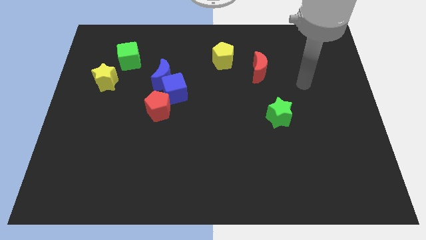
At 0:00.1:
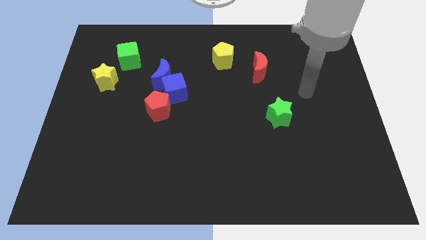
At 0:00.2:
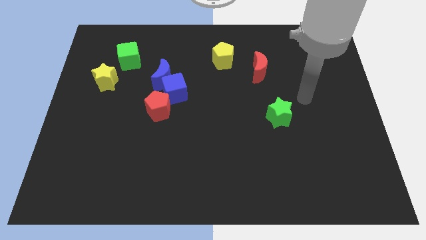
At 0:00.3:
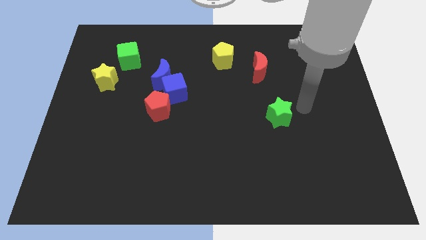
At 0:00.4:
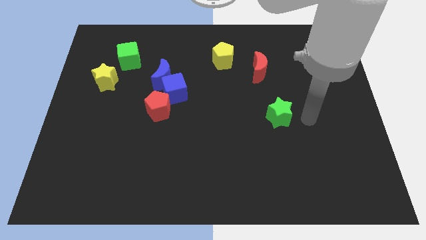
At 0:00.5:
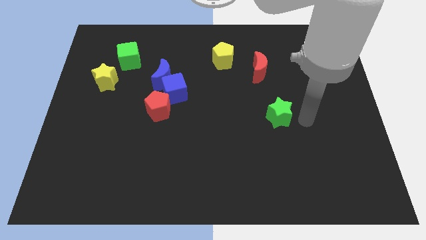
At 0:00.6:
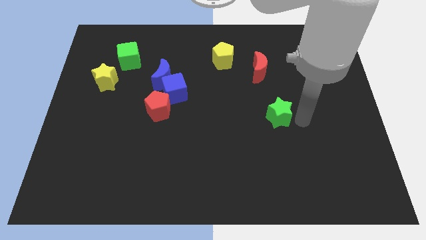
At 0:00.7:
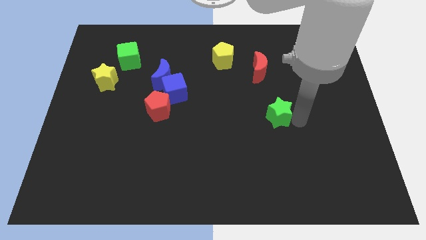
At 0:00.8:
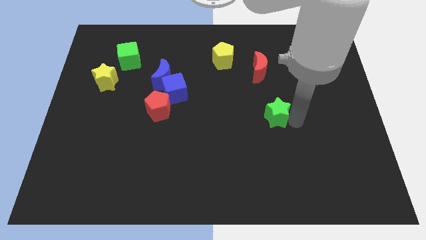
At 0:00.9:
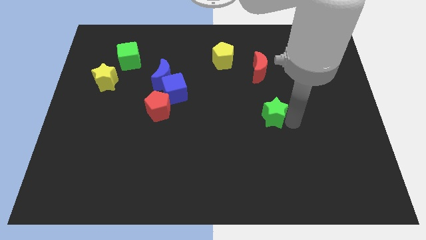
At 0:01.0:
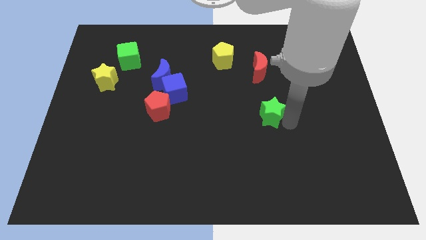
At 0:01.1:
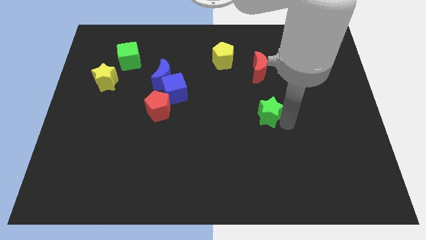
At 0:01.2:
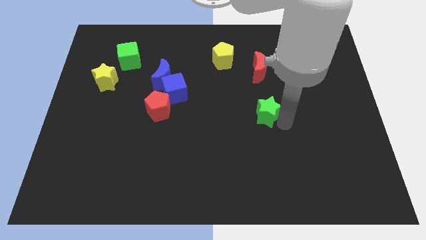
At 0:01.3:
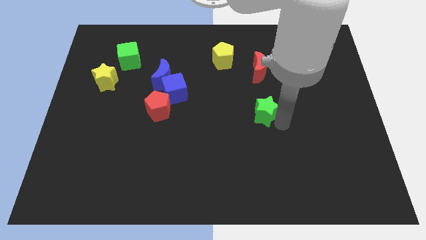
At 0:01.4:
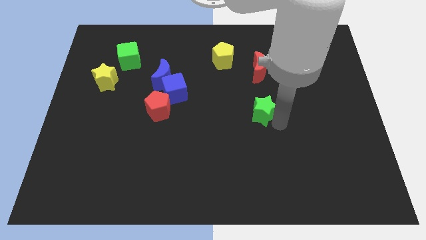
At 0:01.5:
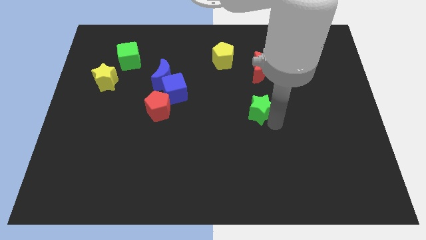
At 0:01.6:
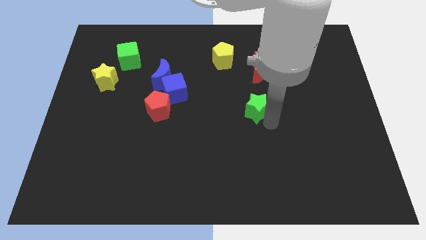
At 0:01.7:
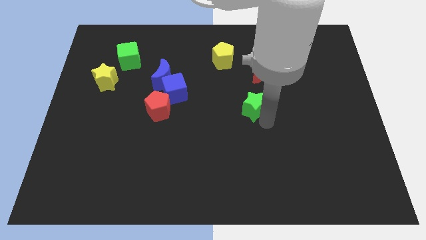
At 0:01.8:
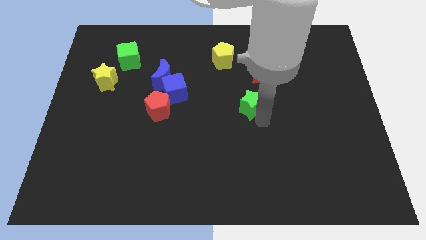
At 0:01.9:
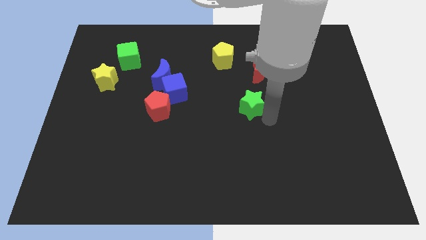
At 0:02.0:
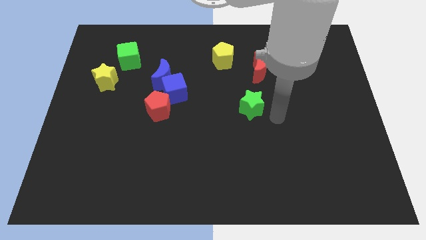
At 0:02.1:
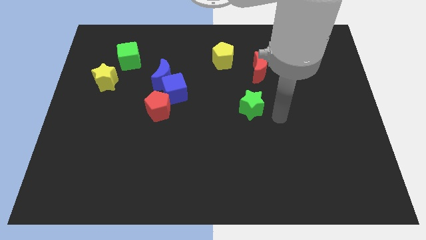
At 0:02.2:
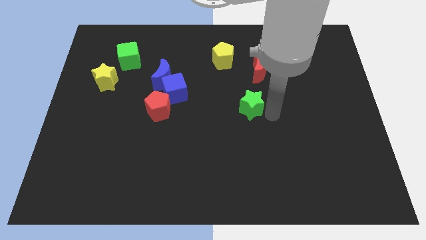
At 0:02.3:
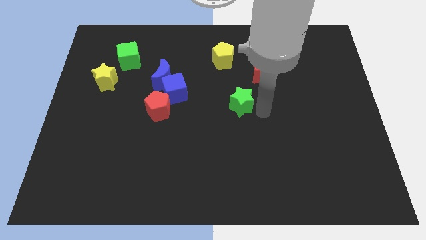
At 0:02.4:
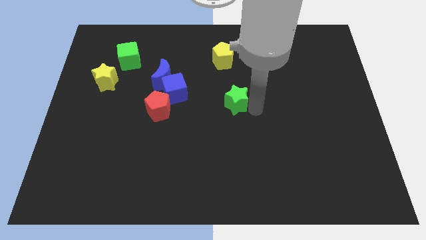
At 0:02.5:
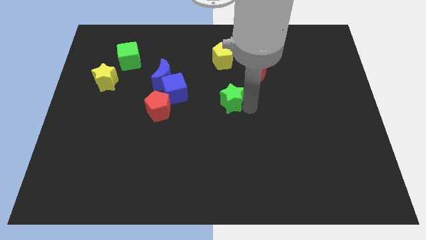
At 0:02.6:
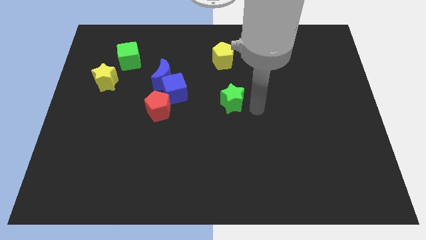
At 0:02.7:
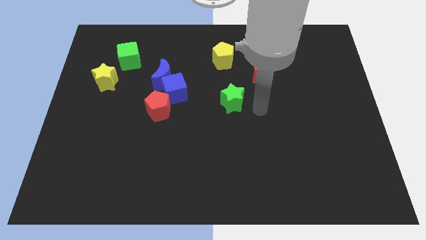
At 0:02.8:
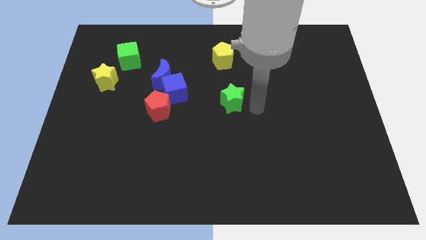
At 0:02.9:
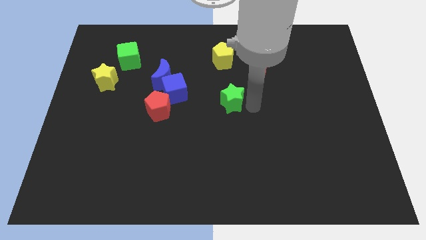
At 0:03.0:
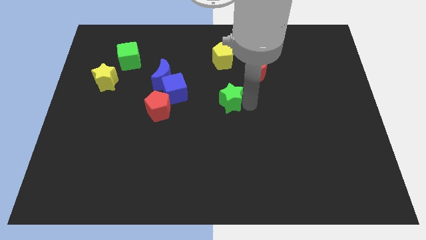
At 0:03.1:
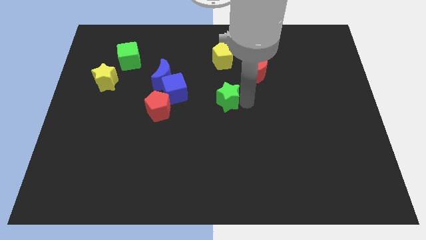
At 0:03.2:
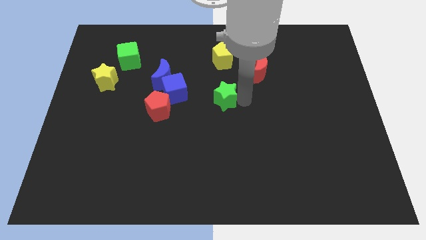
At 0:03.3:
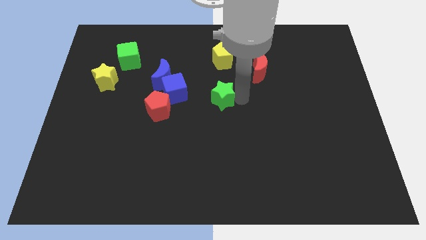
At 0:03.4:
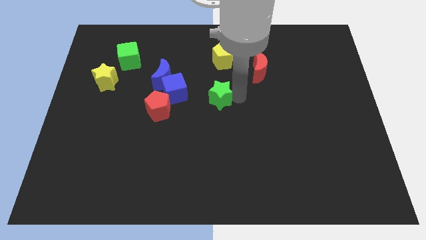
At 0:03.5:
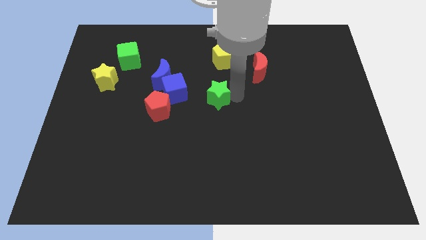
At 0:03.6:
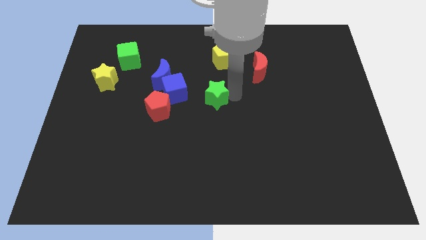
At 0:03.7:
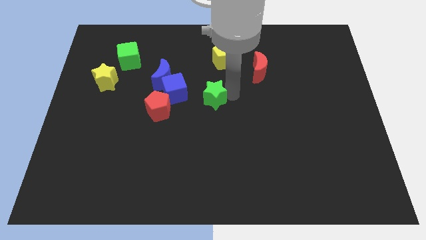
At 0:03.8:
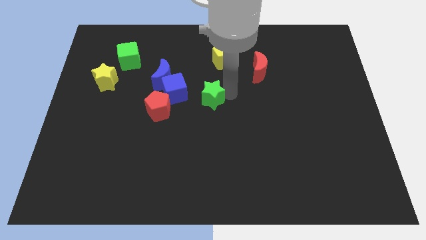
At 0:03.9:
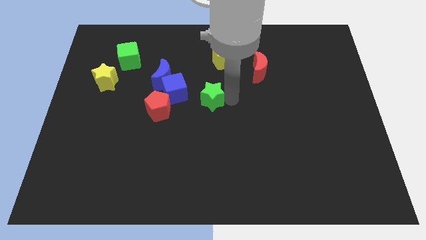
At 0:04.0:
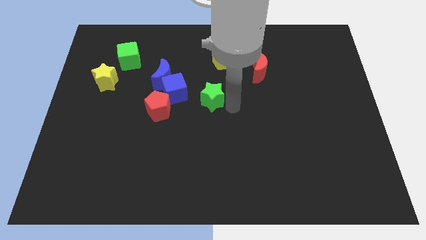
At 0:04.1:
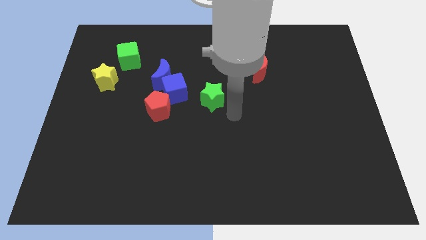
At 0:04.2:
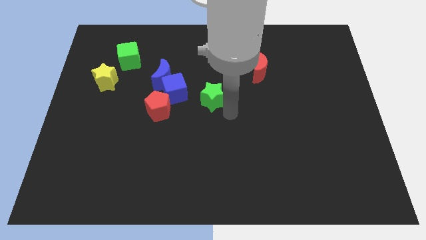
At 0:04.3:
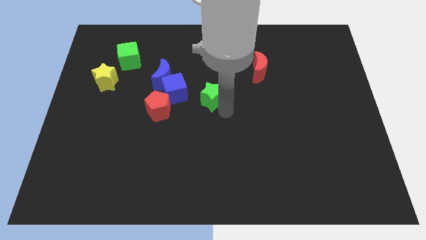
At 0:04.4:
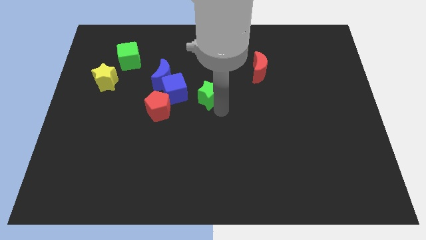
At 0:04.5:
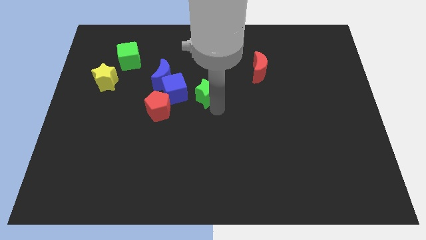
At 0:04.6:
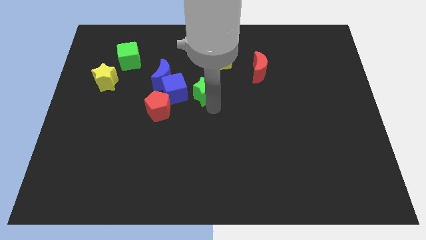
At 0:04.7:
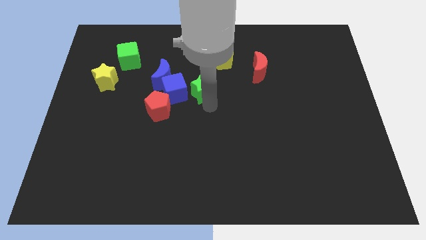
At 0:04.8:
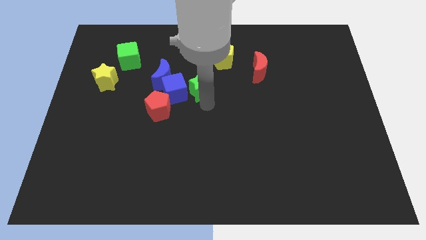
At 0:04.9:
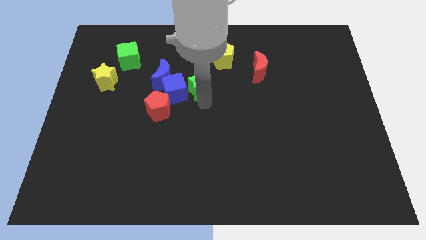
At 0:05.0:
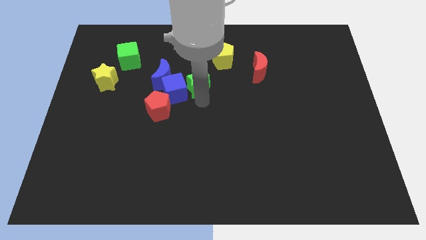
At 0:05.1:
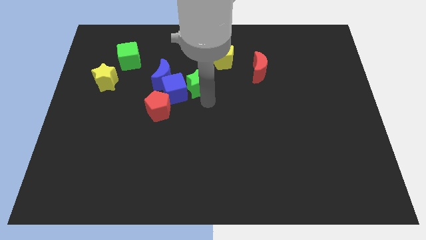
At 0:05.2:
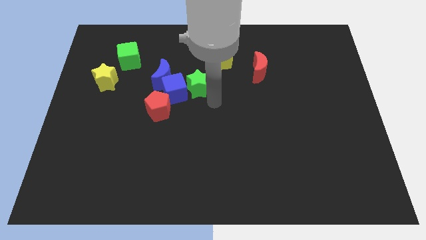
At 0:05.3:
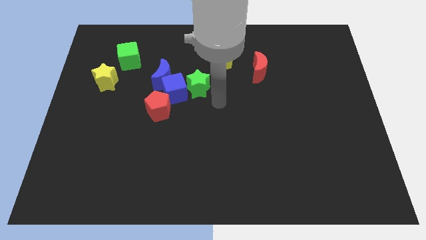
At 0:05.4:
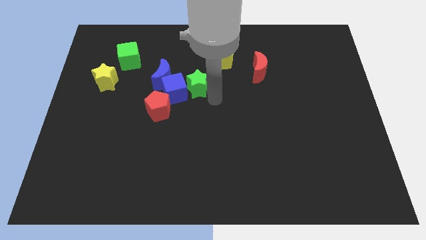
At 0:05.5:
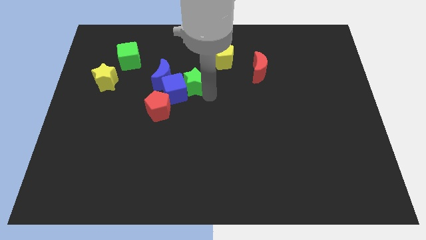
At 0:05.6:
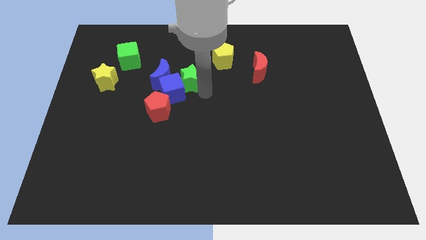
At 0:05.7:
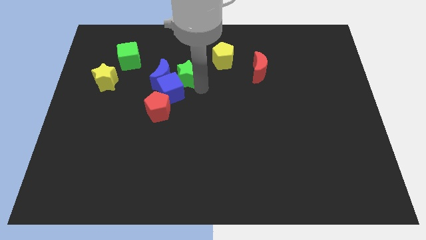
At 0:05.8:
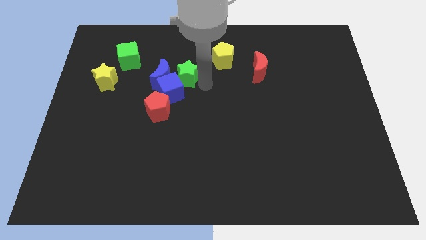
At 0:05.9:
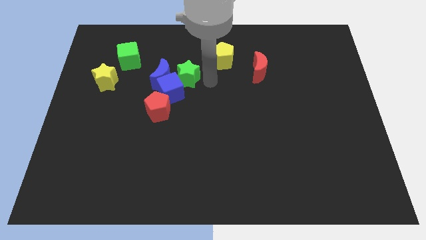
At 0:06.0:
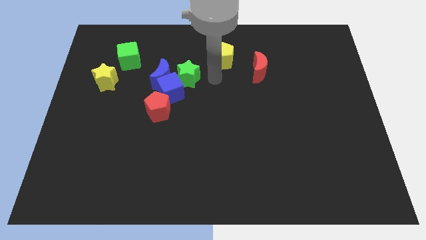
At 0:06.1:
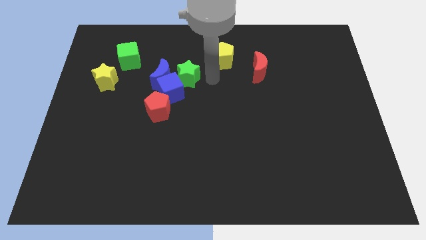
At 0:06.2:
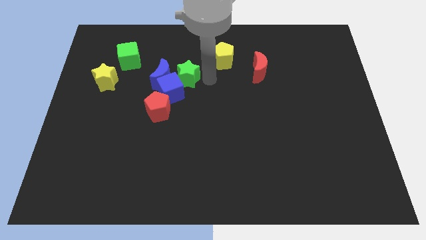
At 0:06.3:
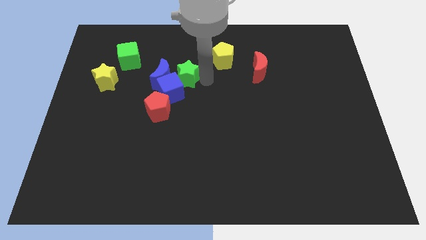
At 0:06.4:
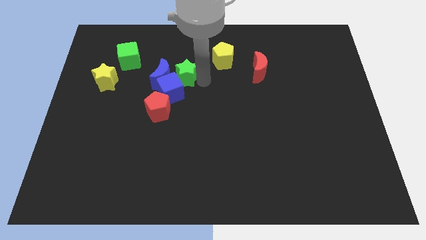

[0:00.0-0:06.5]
put the green star towards the blue moon
